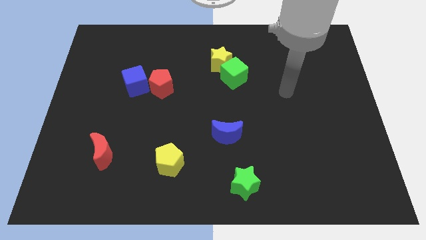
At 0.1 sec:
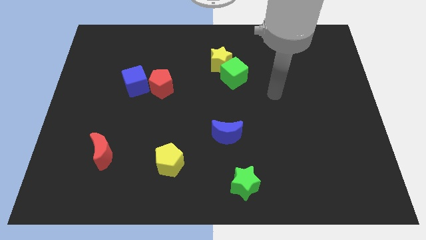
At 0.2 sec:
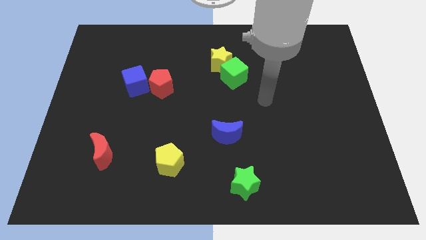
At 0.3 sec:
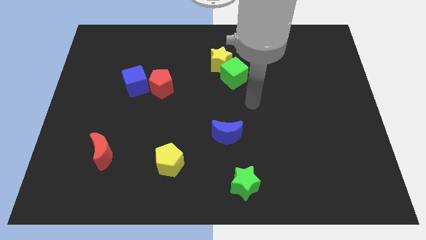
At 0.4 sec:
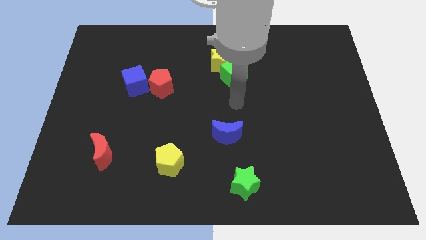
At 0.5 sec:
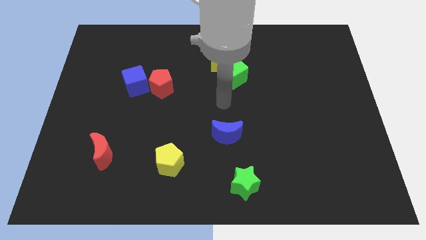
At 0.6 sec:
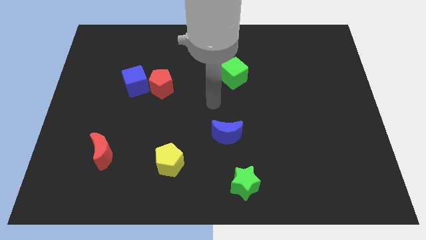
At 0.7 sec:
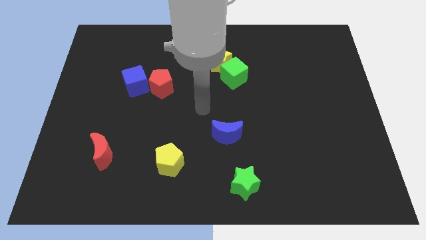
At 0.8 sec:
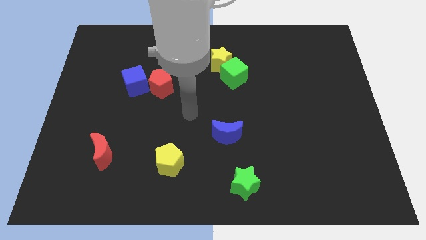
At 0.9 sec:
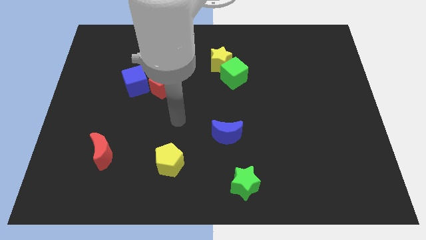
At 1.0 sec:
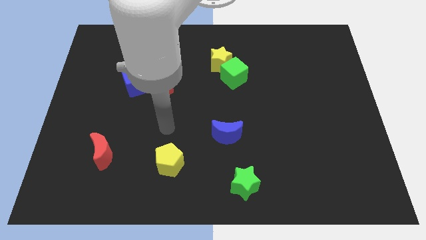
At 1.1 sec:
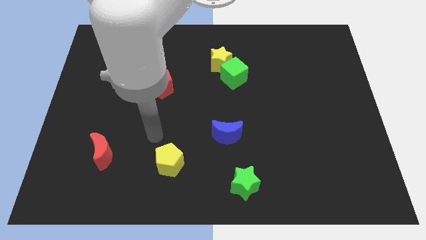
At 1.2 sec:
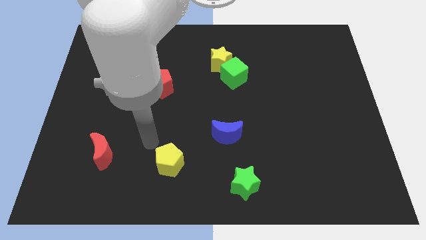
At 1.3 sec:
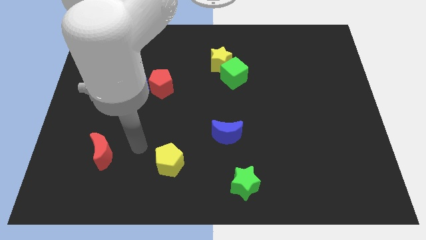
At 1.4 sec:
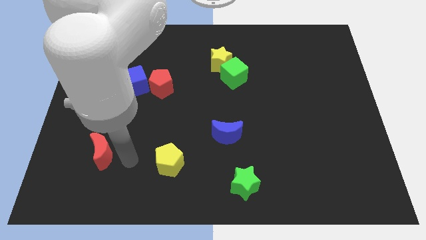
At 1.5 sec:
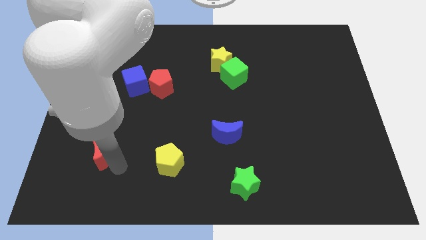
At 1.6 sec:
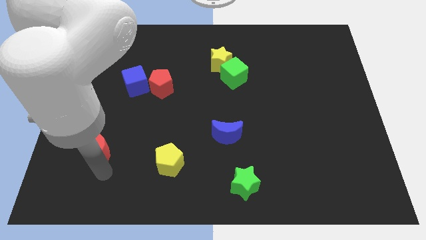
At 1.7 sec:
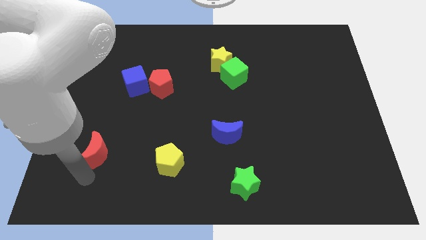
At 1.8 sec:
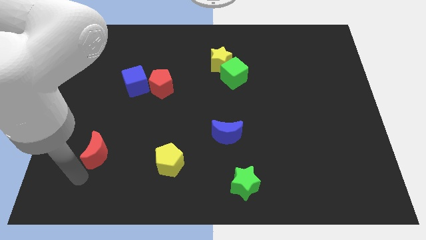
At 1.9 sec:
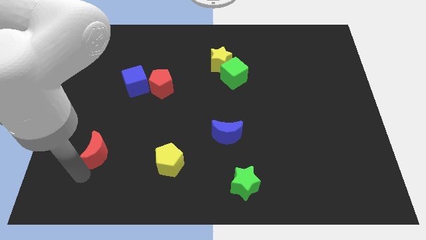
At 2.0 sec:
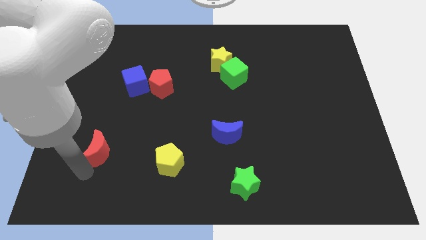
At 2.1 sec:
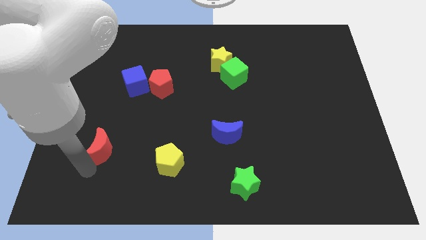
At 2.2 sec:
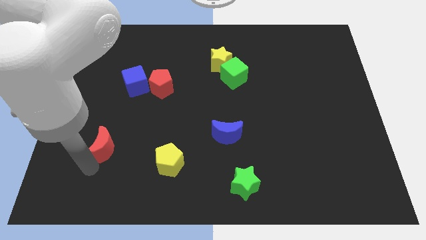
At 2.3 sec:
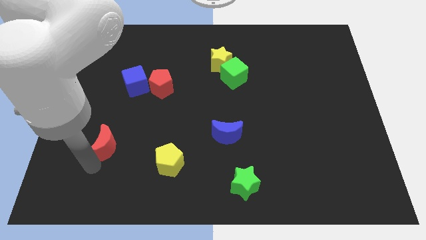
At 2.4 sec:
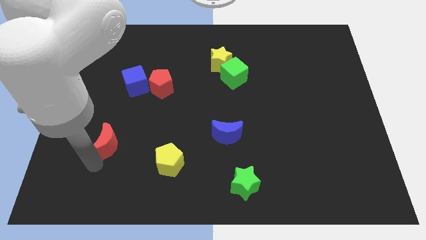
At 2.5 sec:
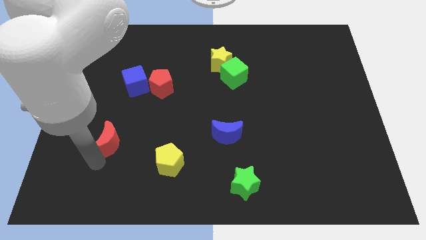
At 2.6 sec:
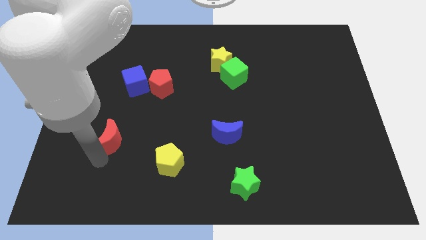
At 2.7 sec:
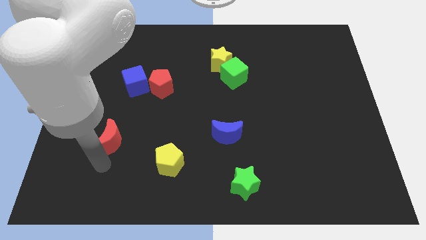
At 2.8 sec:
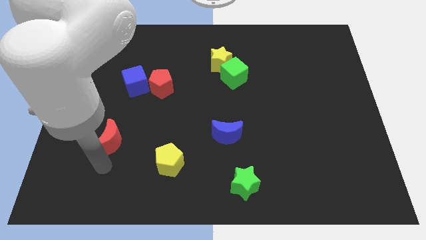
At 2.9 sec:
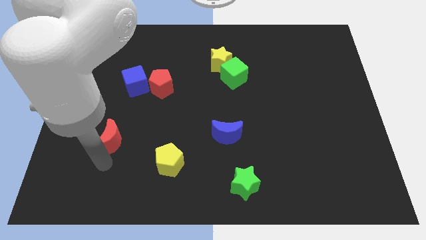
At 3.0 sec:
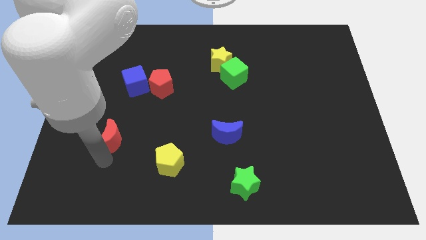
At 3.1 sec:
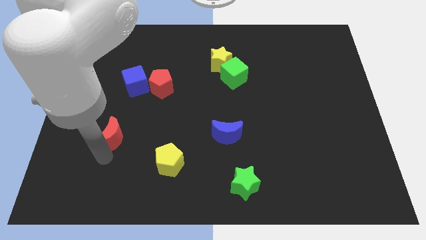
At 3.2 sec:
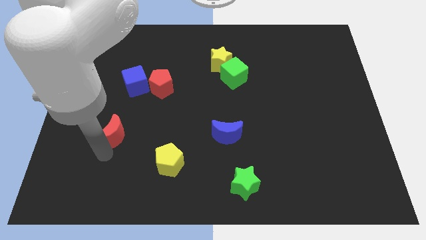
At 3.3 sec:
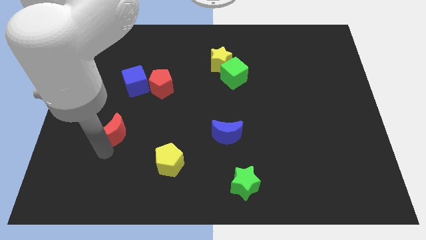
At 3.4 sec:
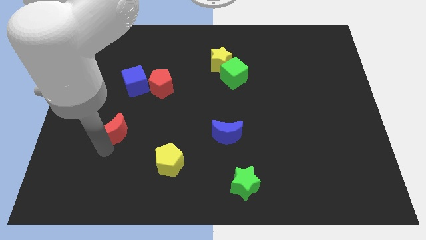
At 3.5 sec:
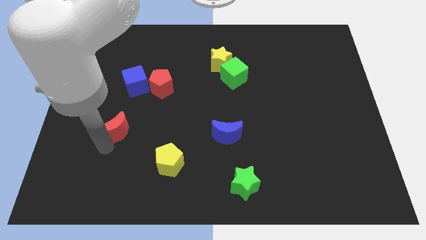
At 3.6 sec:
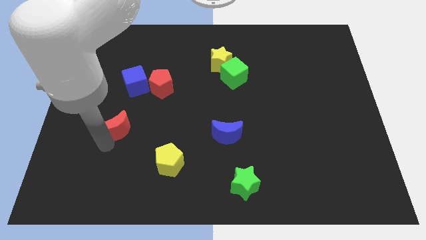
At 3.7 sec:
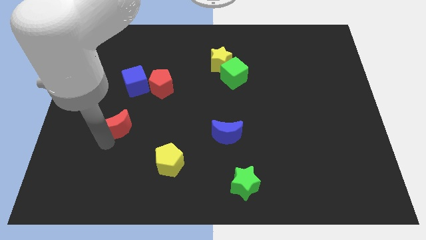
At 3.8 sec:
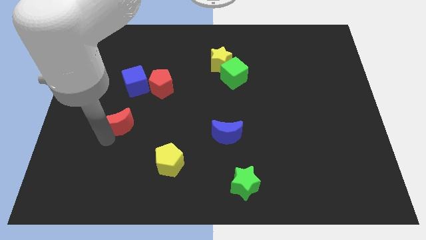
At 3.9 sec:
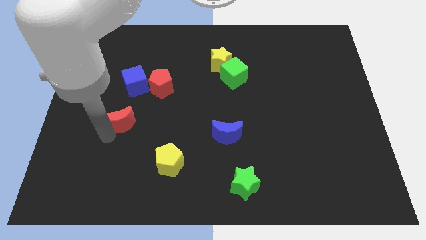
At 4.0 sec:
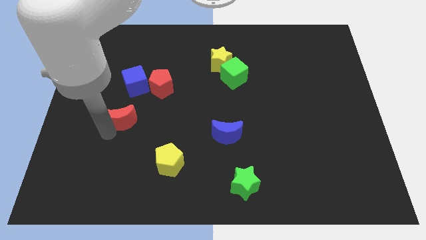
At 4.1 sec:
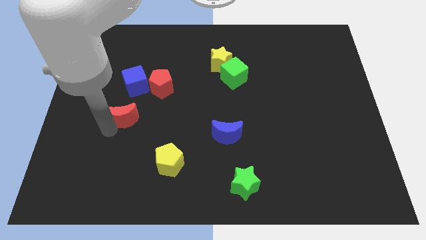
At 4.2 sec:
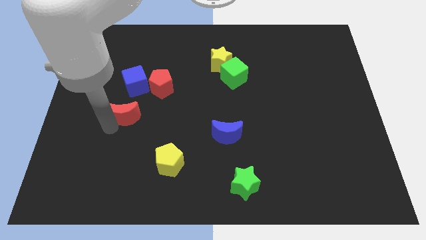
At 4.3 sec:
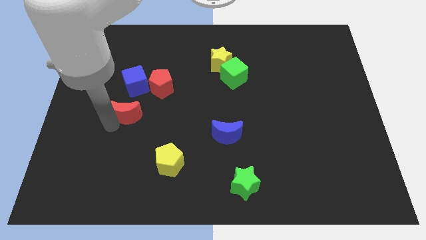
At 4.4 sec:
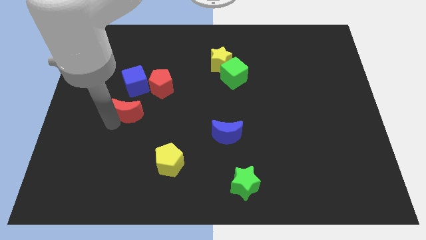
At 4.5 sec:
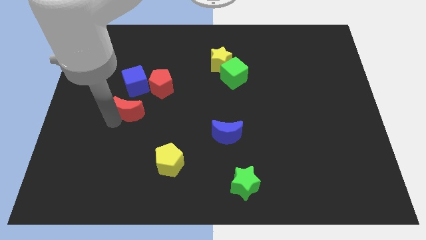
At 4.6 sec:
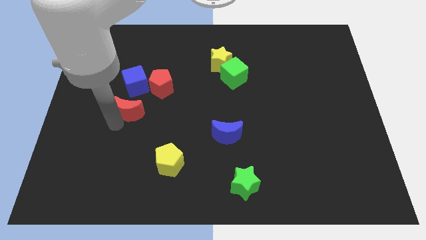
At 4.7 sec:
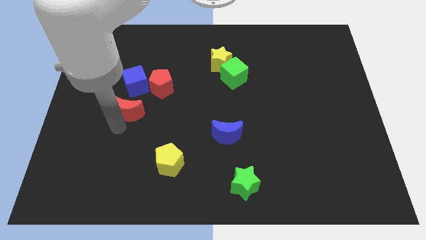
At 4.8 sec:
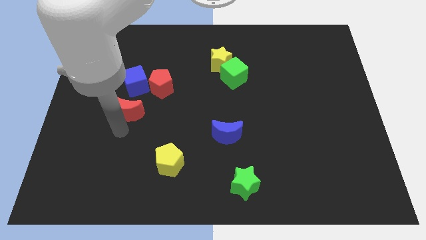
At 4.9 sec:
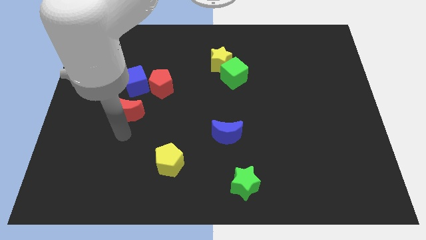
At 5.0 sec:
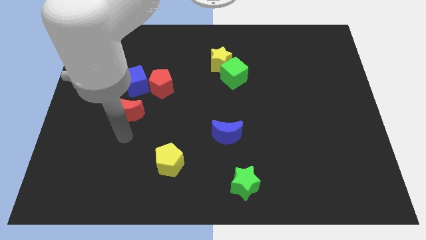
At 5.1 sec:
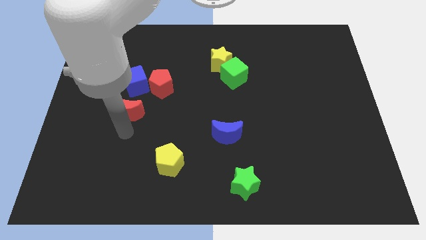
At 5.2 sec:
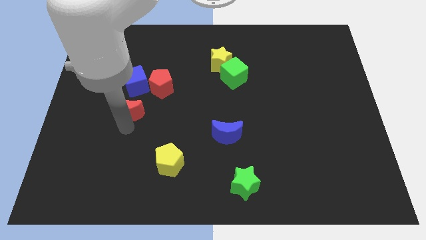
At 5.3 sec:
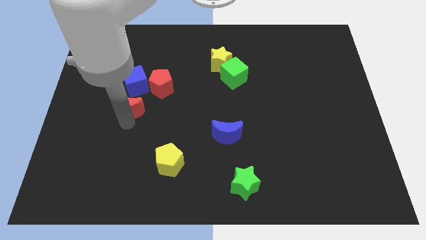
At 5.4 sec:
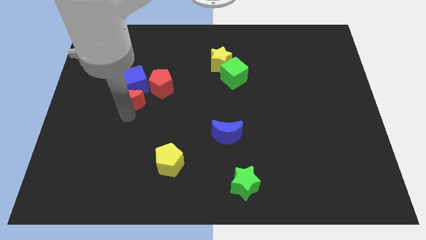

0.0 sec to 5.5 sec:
put the red moon towards the blue cube
